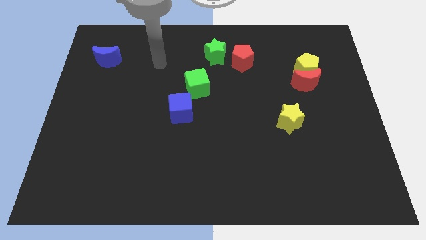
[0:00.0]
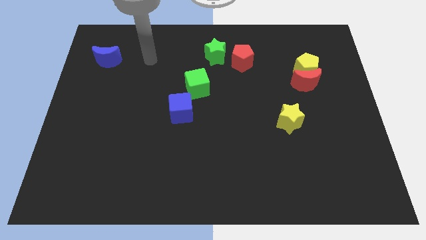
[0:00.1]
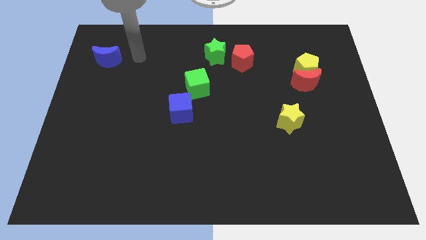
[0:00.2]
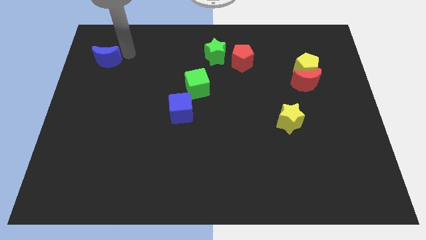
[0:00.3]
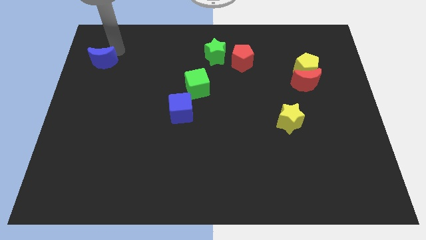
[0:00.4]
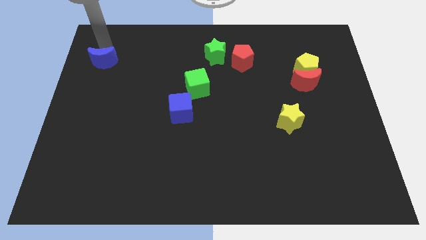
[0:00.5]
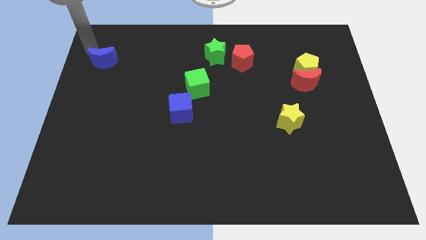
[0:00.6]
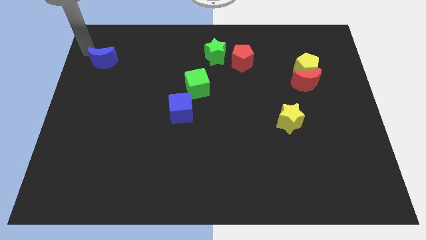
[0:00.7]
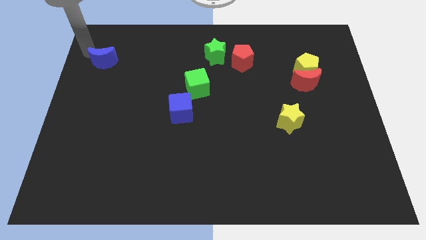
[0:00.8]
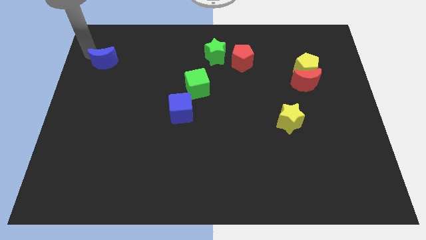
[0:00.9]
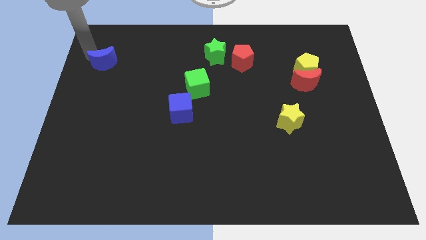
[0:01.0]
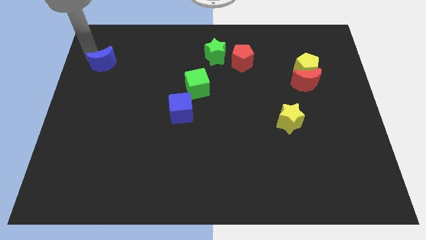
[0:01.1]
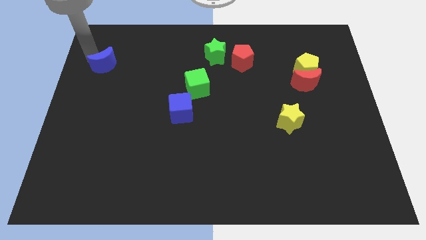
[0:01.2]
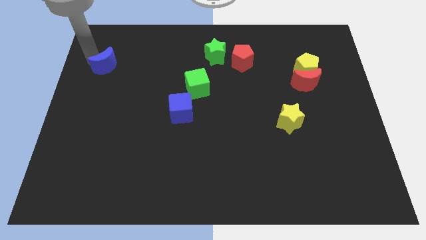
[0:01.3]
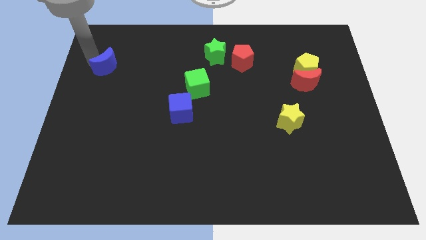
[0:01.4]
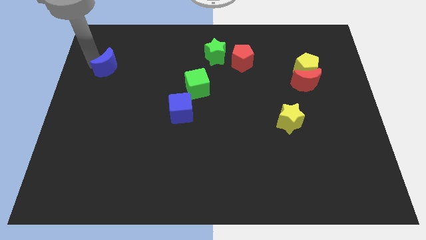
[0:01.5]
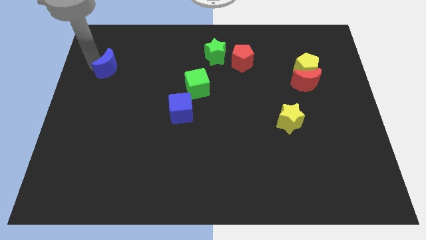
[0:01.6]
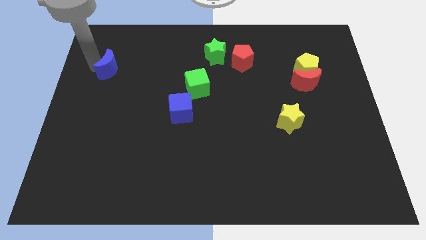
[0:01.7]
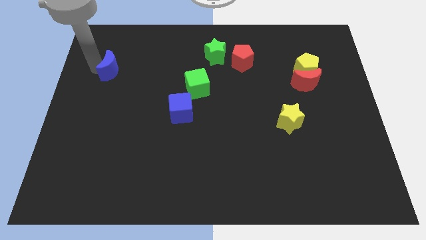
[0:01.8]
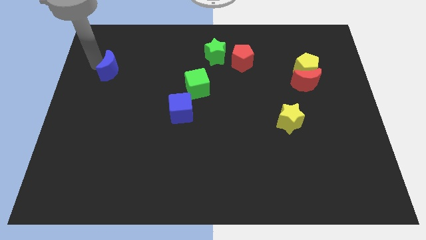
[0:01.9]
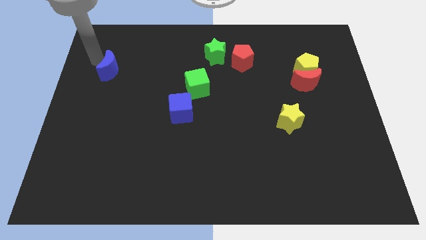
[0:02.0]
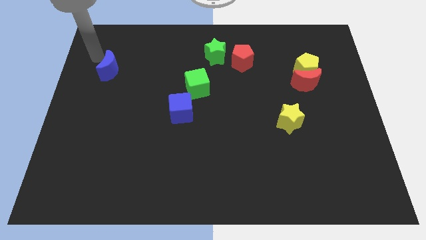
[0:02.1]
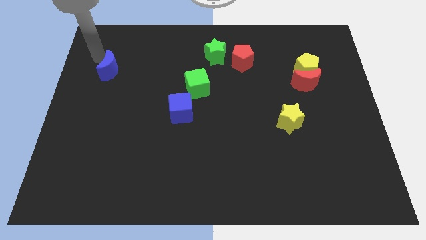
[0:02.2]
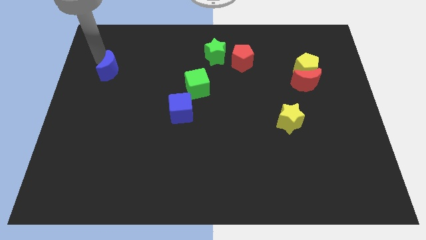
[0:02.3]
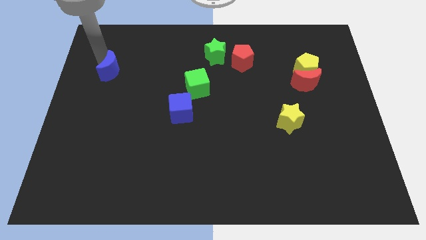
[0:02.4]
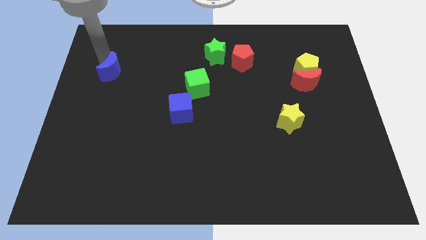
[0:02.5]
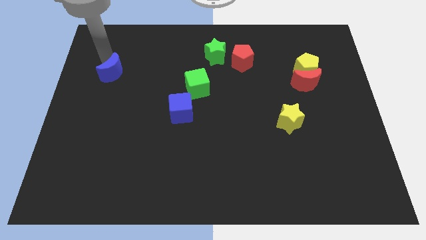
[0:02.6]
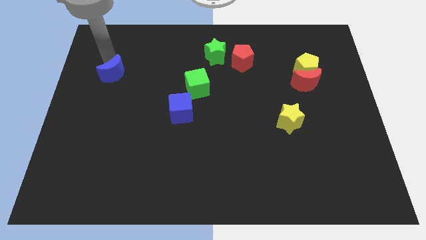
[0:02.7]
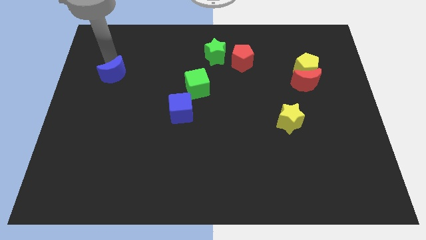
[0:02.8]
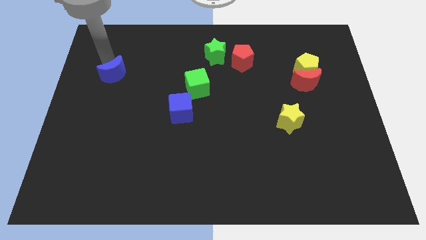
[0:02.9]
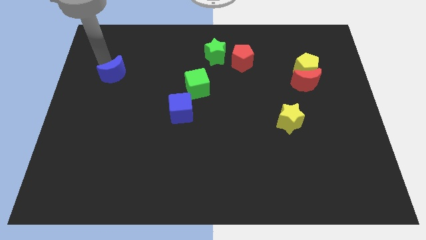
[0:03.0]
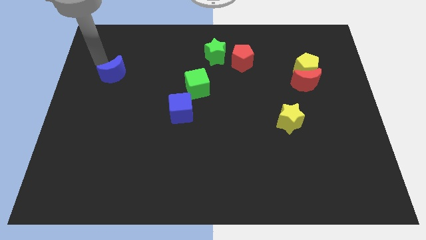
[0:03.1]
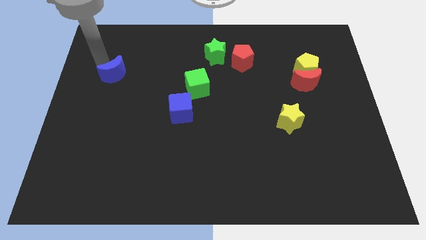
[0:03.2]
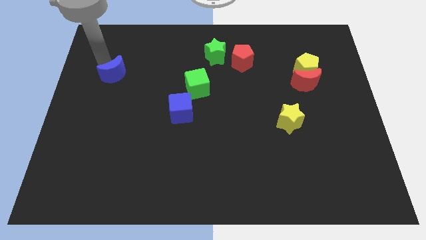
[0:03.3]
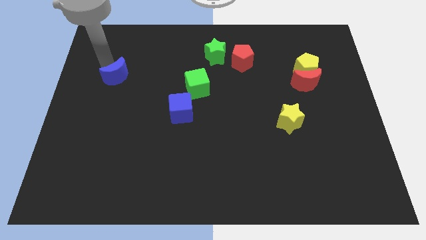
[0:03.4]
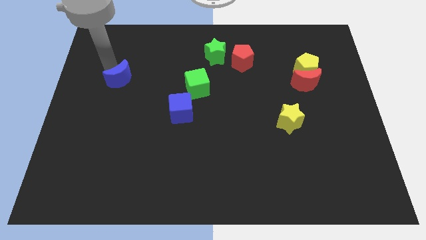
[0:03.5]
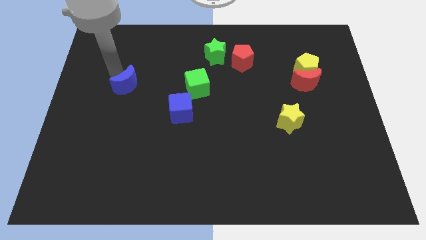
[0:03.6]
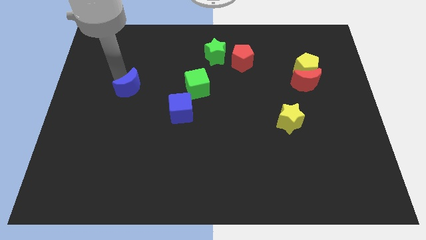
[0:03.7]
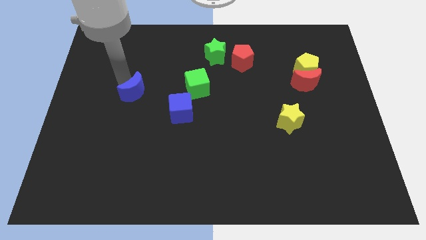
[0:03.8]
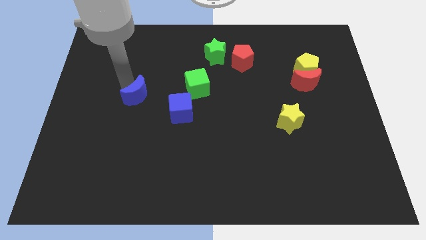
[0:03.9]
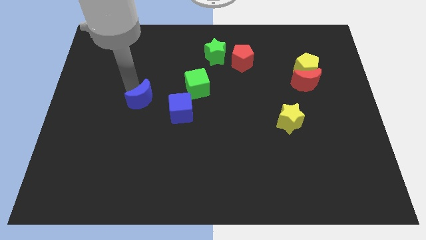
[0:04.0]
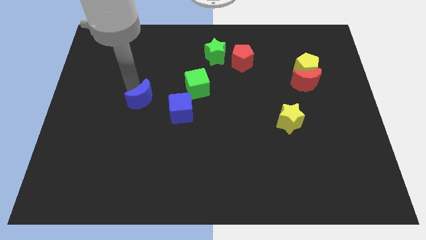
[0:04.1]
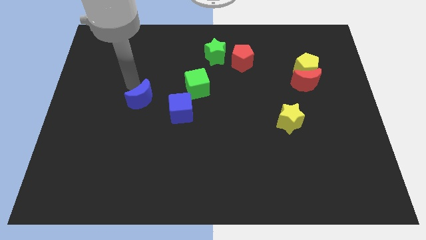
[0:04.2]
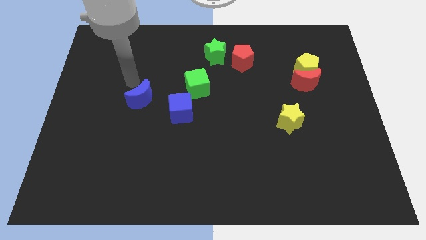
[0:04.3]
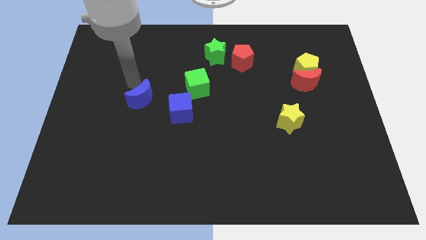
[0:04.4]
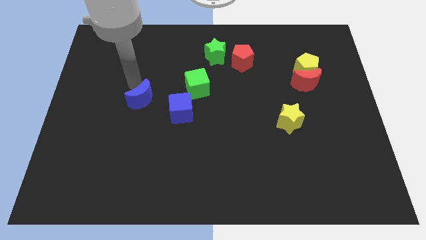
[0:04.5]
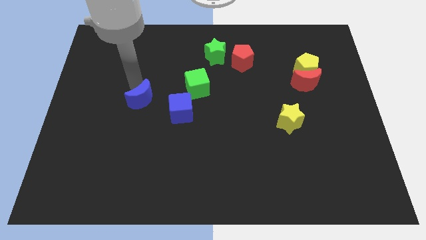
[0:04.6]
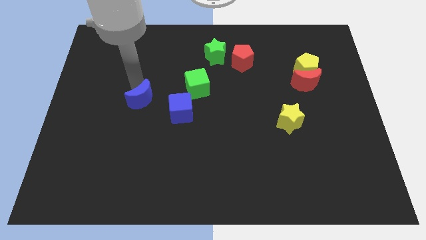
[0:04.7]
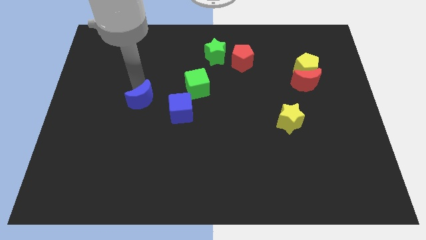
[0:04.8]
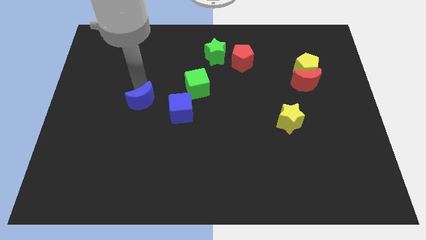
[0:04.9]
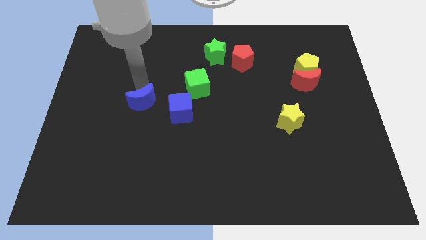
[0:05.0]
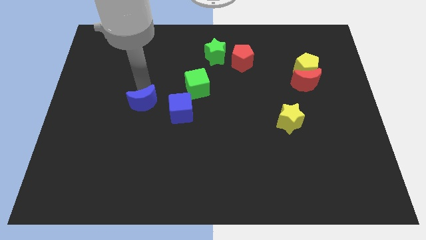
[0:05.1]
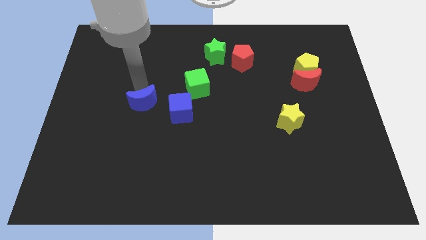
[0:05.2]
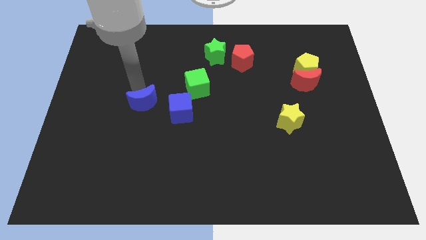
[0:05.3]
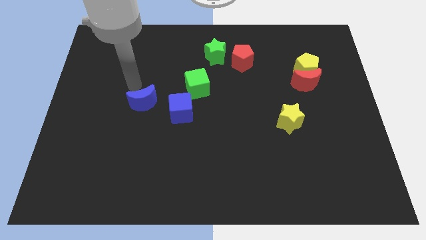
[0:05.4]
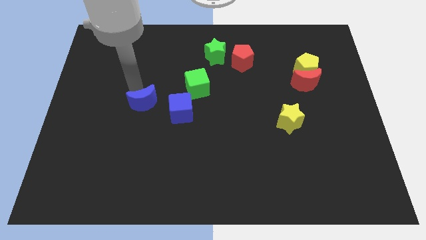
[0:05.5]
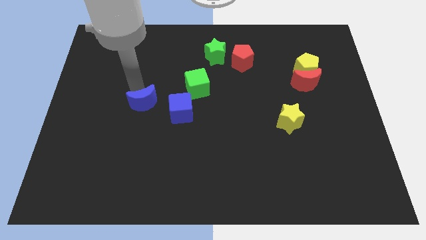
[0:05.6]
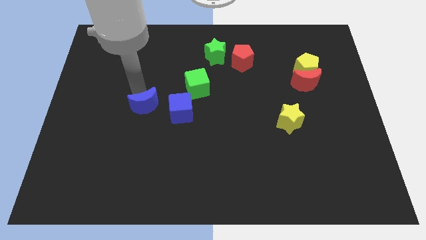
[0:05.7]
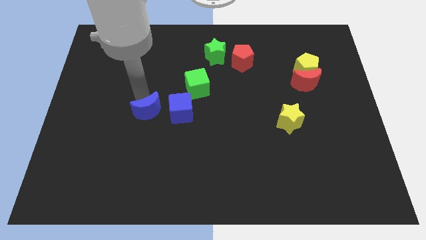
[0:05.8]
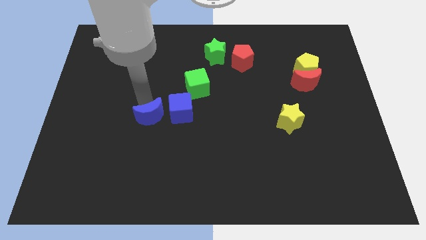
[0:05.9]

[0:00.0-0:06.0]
move the blue moon diagonally down and to the left of the blue cube

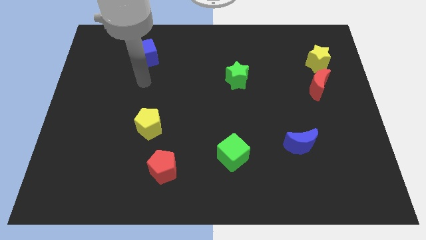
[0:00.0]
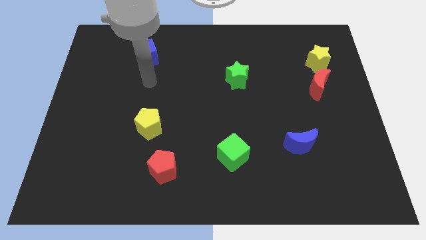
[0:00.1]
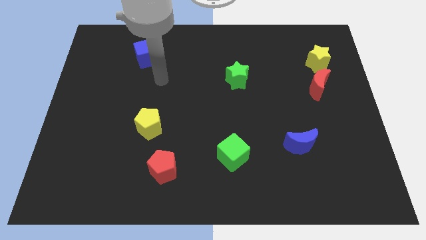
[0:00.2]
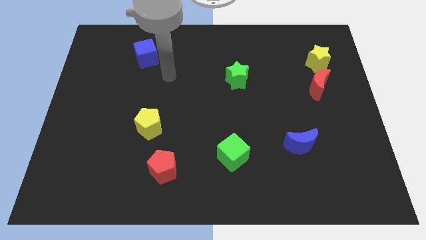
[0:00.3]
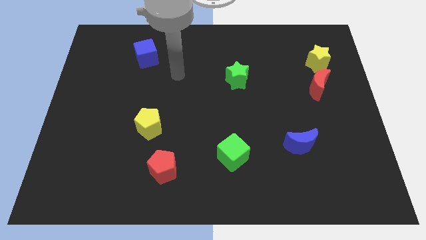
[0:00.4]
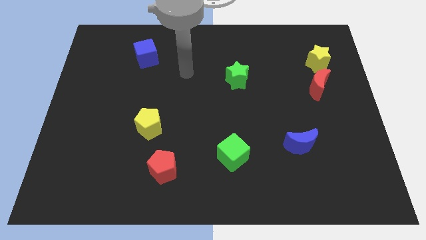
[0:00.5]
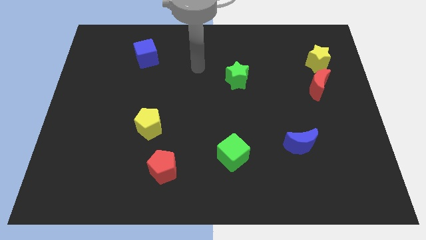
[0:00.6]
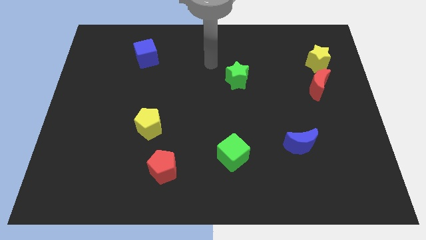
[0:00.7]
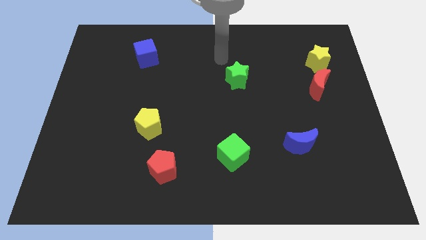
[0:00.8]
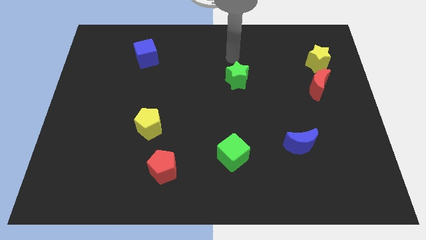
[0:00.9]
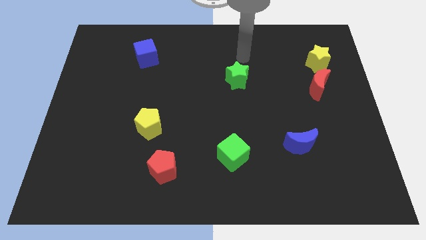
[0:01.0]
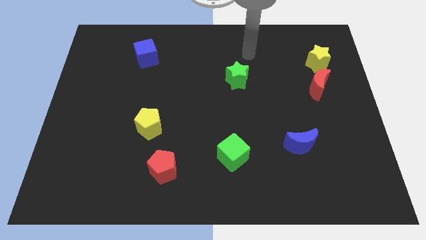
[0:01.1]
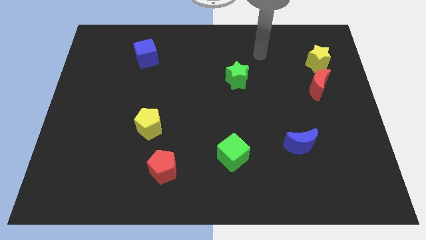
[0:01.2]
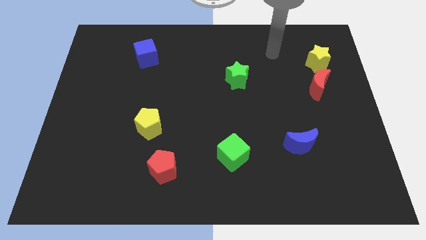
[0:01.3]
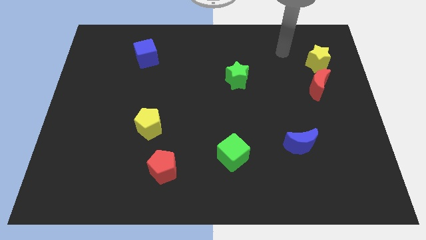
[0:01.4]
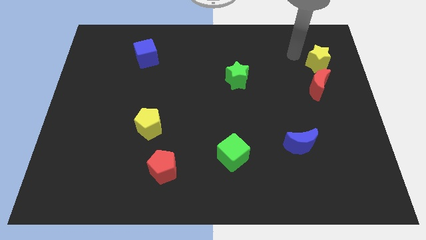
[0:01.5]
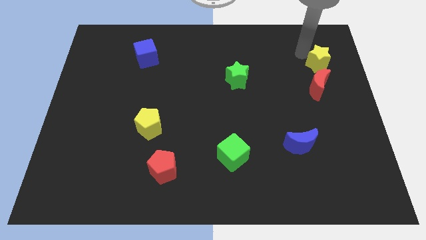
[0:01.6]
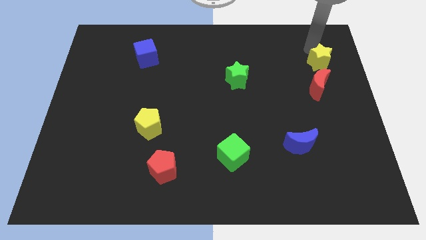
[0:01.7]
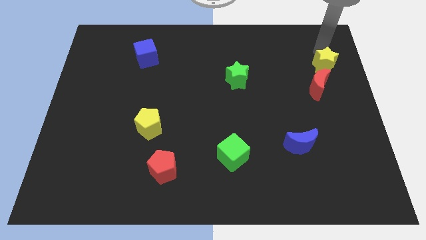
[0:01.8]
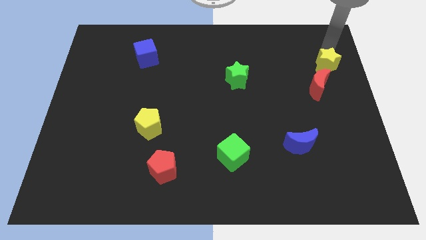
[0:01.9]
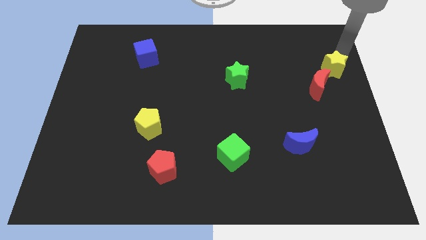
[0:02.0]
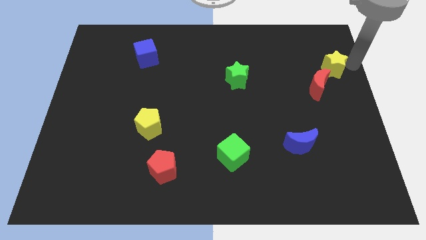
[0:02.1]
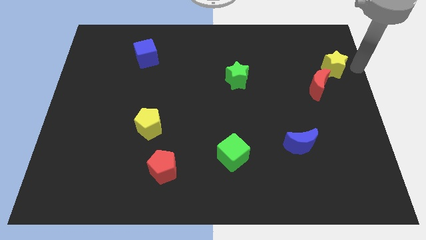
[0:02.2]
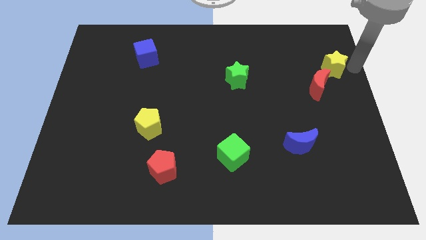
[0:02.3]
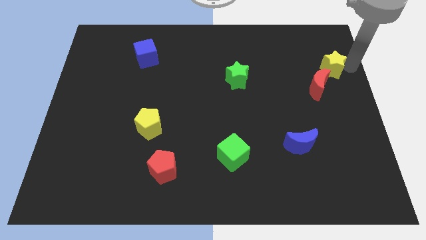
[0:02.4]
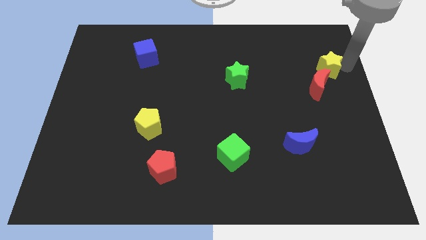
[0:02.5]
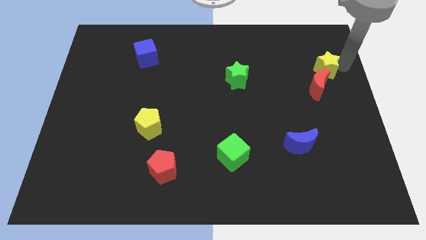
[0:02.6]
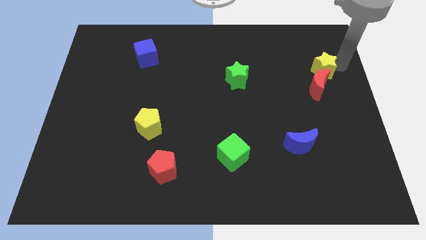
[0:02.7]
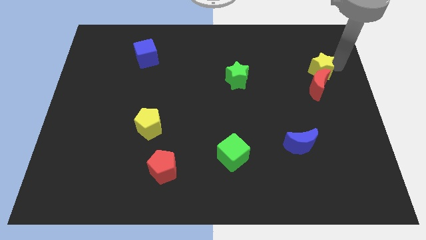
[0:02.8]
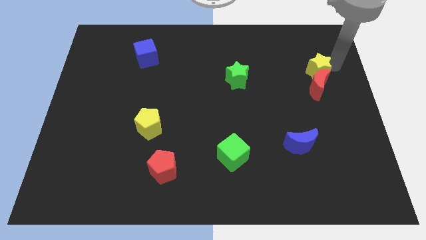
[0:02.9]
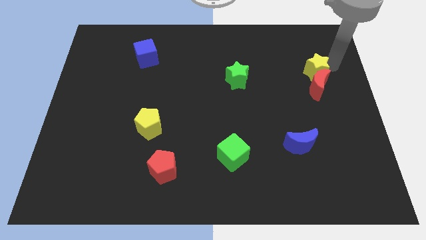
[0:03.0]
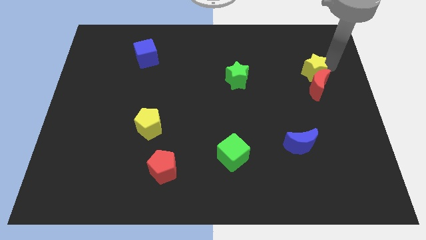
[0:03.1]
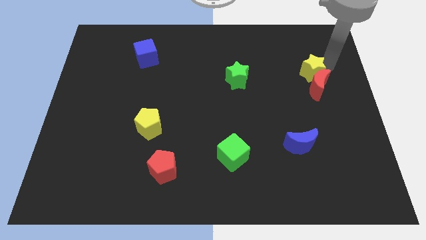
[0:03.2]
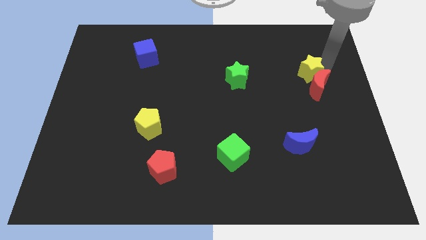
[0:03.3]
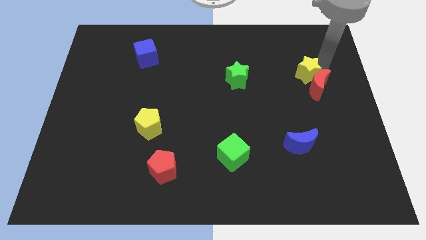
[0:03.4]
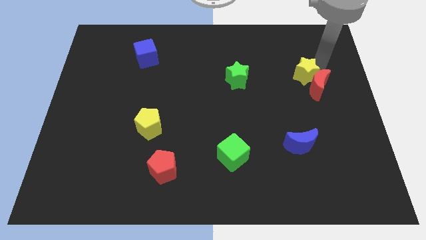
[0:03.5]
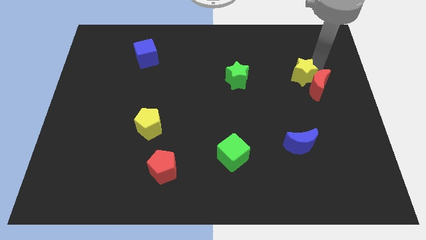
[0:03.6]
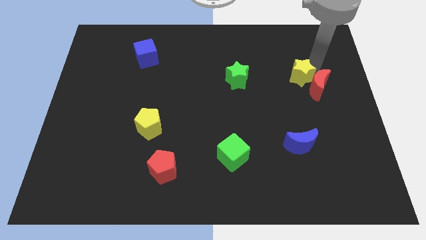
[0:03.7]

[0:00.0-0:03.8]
move the yellow star just right of the green star
